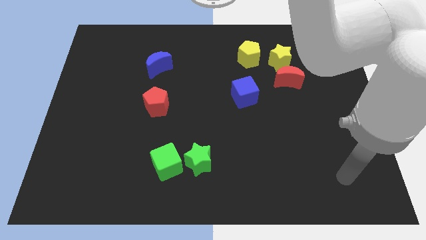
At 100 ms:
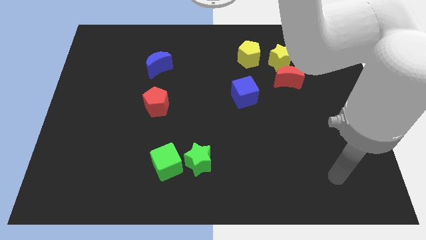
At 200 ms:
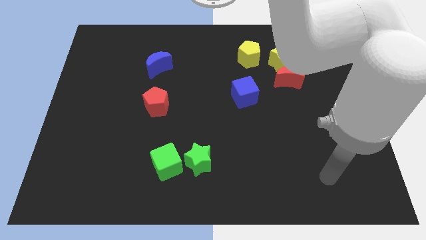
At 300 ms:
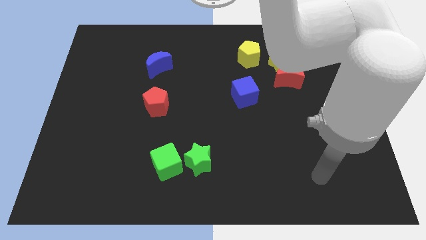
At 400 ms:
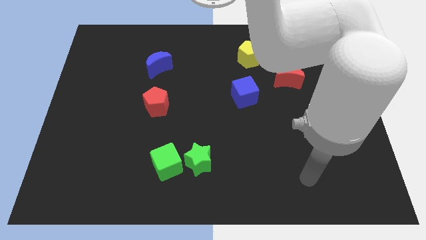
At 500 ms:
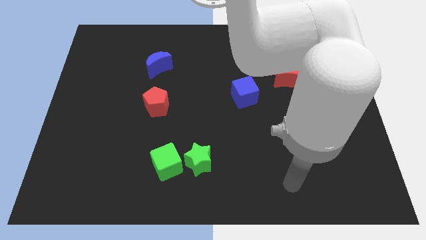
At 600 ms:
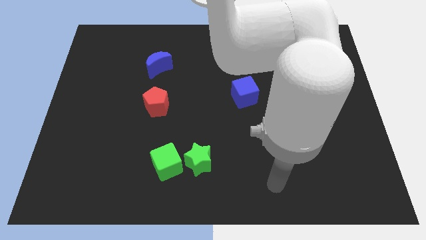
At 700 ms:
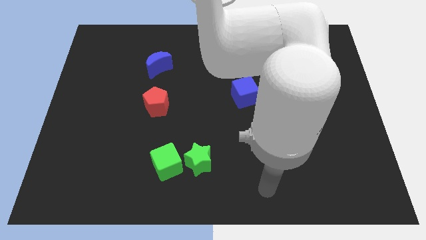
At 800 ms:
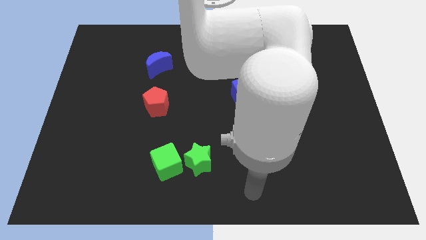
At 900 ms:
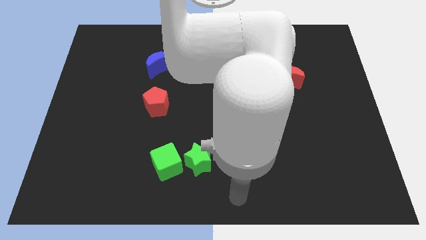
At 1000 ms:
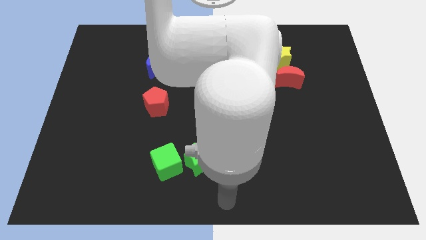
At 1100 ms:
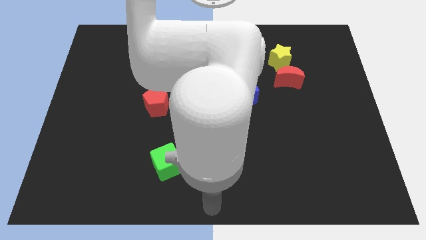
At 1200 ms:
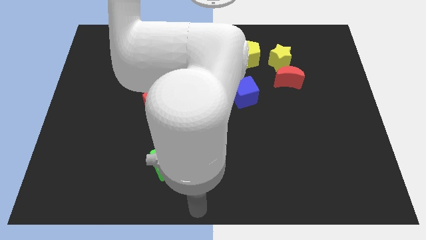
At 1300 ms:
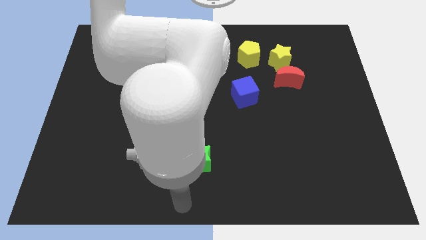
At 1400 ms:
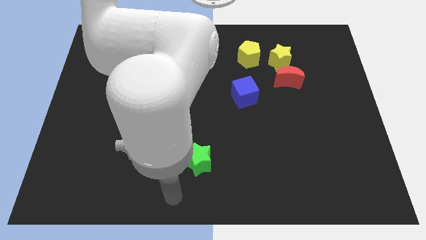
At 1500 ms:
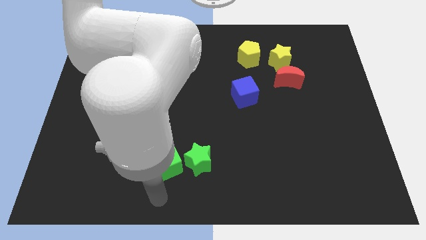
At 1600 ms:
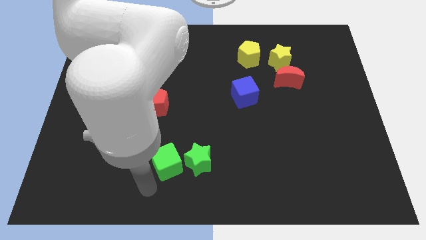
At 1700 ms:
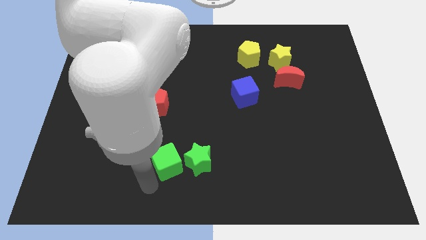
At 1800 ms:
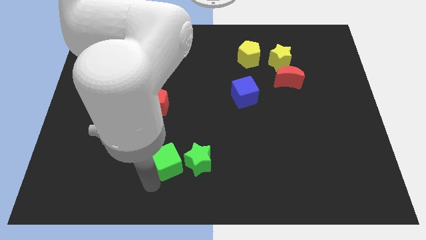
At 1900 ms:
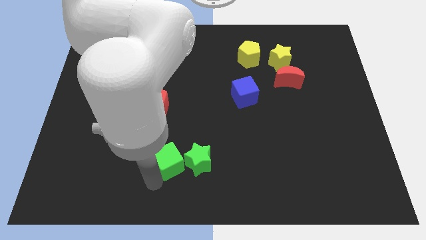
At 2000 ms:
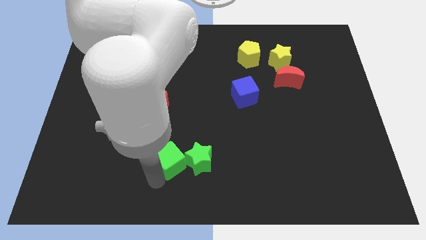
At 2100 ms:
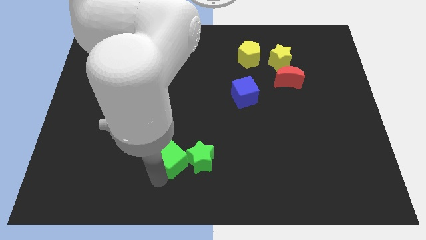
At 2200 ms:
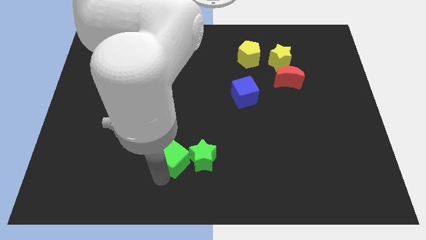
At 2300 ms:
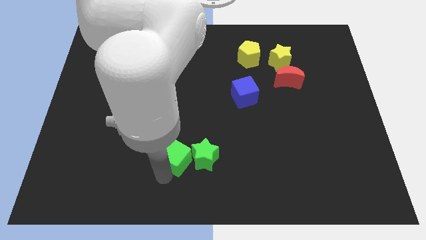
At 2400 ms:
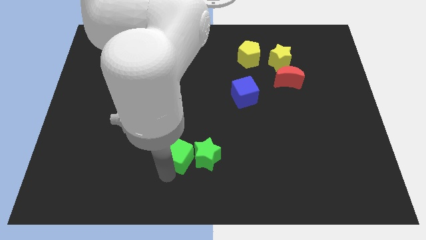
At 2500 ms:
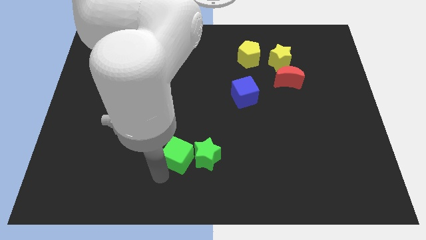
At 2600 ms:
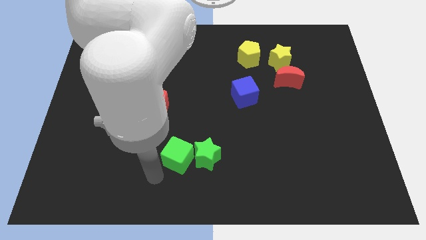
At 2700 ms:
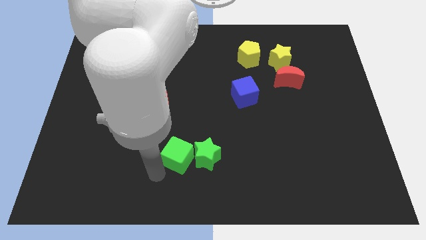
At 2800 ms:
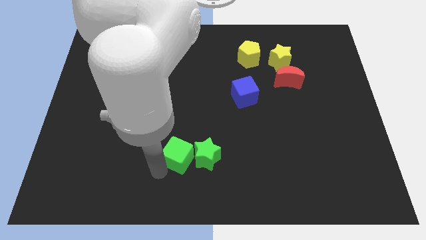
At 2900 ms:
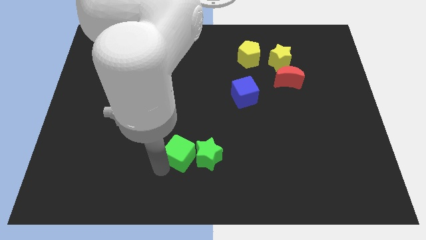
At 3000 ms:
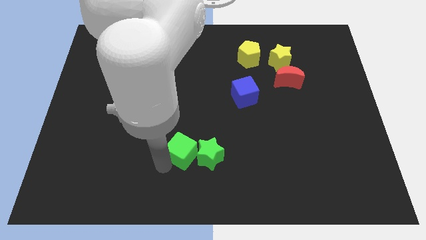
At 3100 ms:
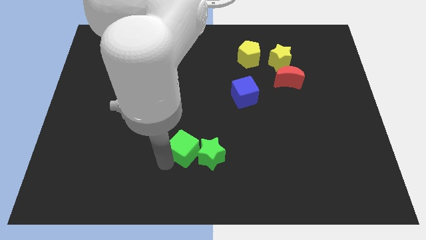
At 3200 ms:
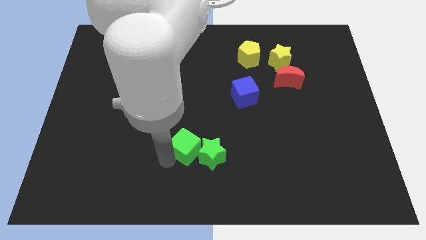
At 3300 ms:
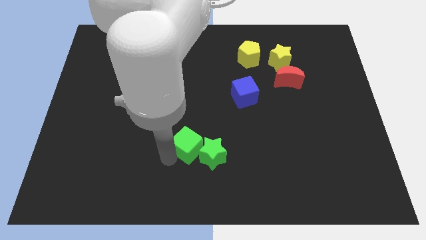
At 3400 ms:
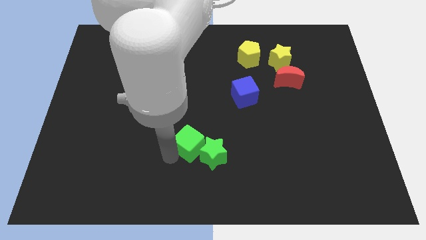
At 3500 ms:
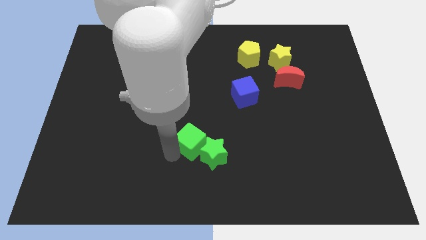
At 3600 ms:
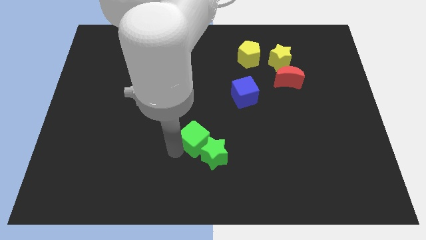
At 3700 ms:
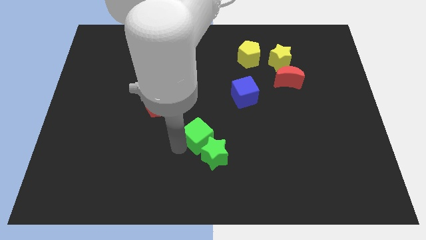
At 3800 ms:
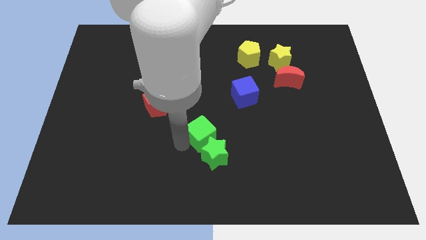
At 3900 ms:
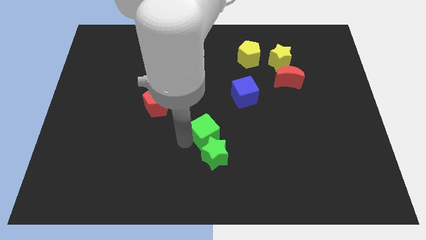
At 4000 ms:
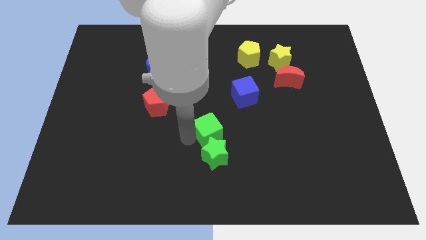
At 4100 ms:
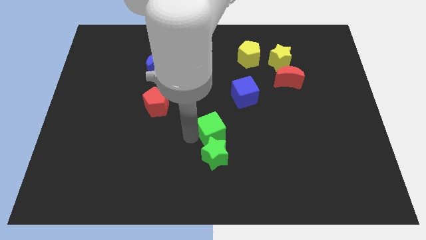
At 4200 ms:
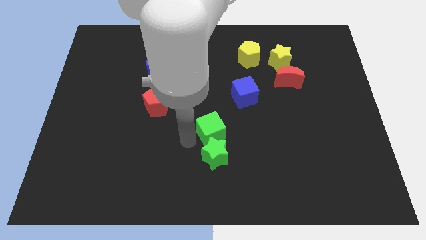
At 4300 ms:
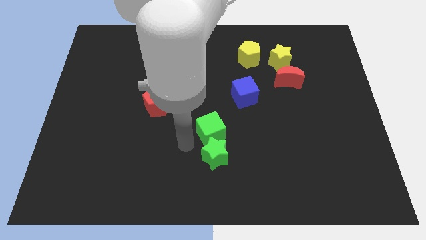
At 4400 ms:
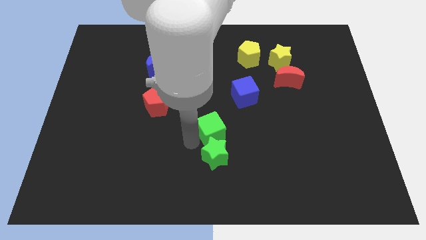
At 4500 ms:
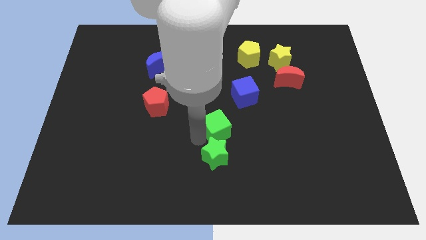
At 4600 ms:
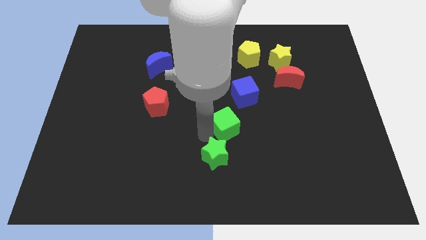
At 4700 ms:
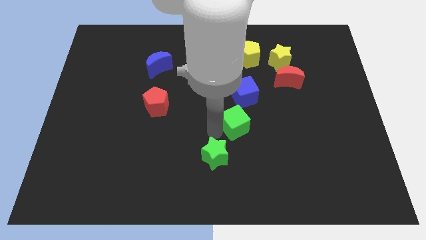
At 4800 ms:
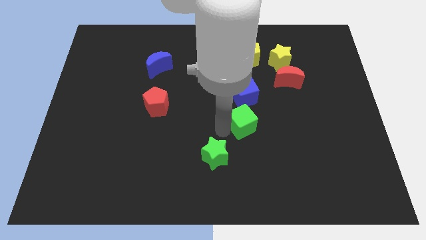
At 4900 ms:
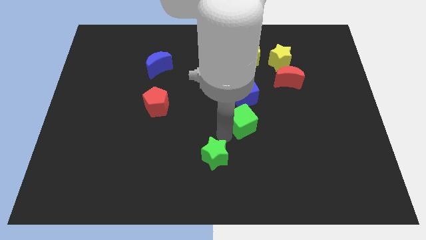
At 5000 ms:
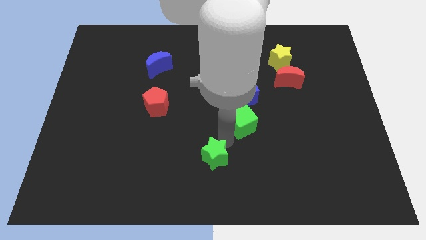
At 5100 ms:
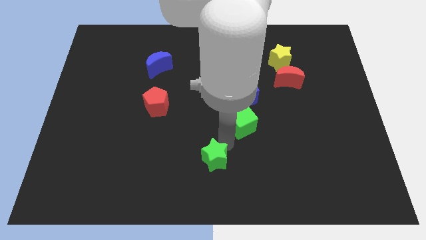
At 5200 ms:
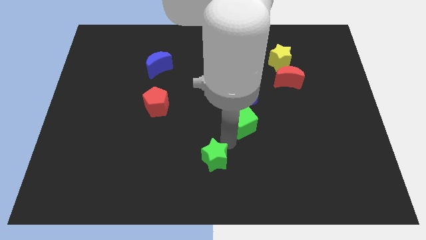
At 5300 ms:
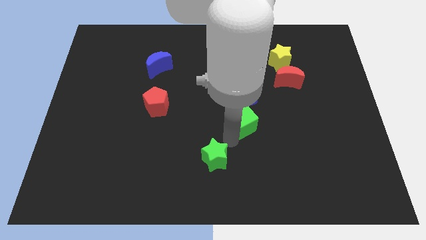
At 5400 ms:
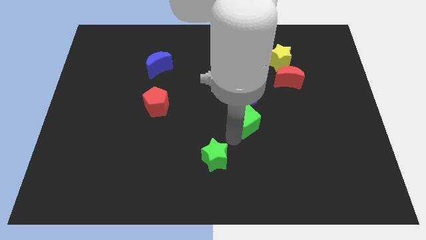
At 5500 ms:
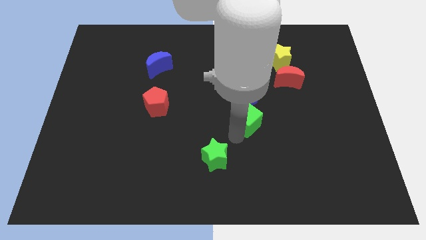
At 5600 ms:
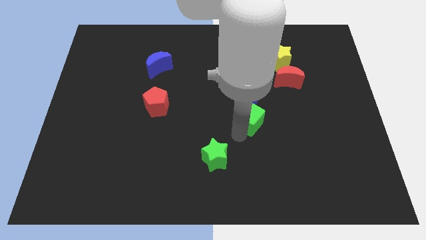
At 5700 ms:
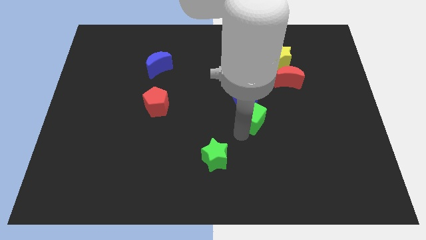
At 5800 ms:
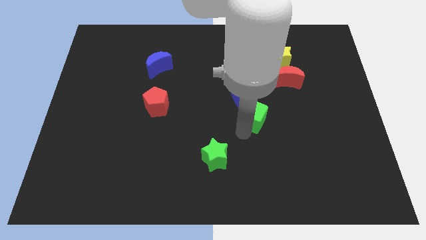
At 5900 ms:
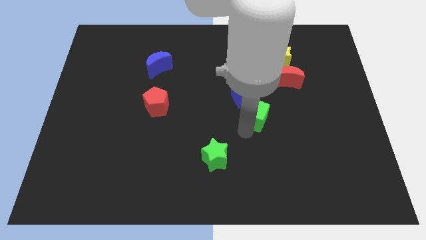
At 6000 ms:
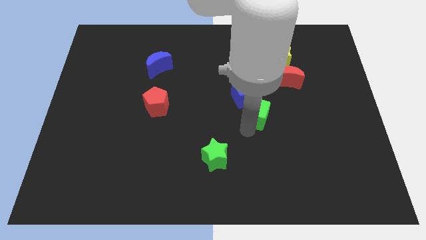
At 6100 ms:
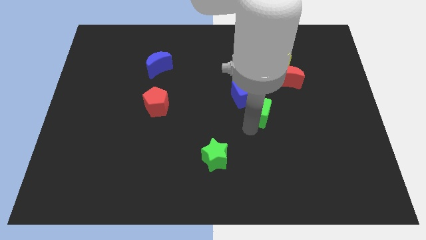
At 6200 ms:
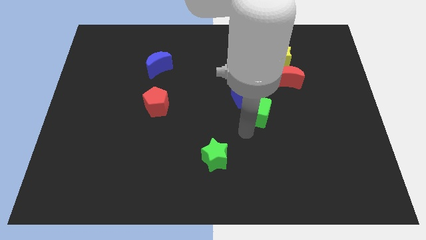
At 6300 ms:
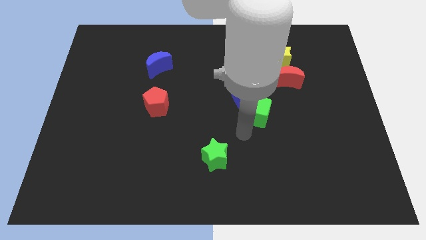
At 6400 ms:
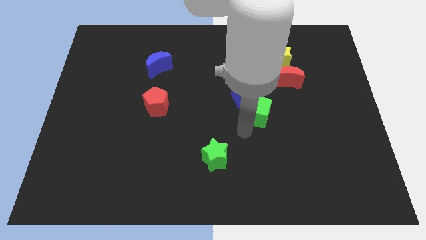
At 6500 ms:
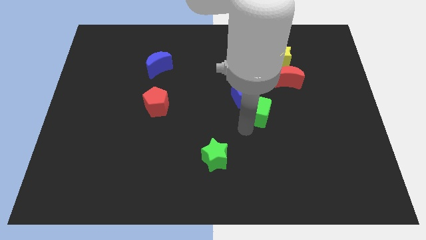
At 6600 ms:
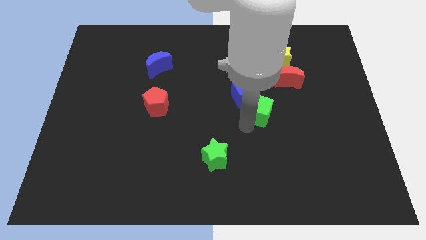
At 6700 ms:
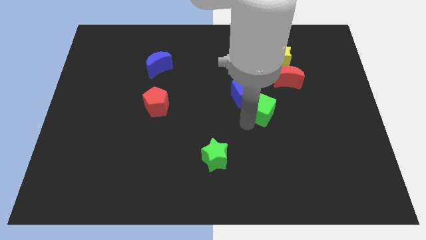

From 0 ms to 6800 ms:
push the green cube to the bottom left of the red moon

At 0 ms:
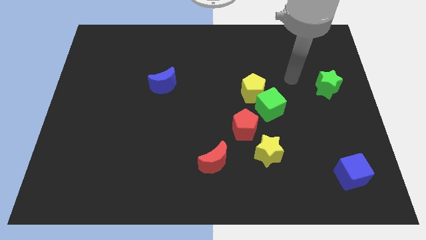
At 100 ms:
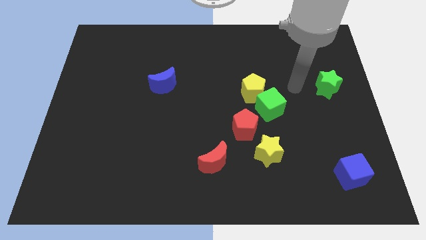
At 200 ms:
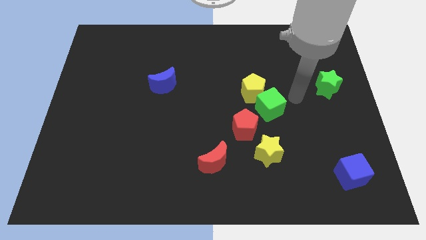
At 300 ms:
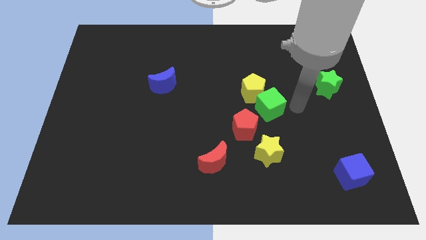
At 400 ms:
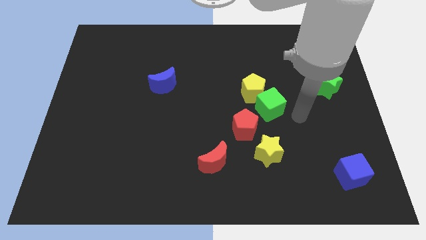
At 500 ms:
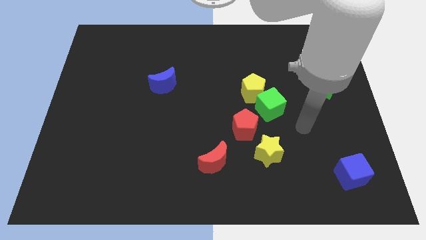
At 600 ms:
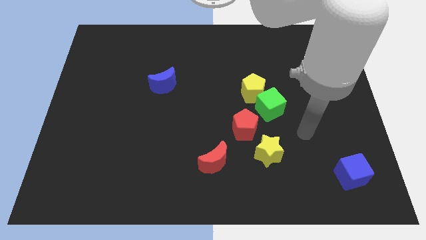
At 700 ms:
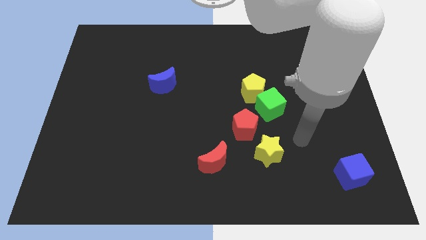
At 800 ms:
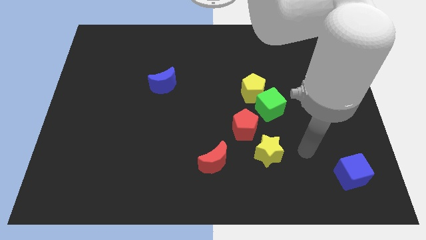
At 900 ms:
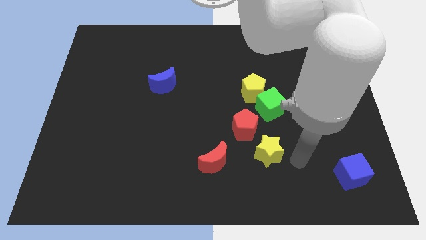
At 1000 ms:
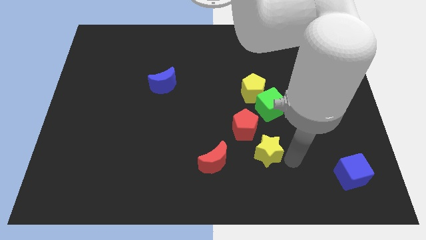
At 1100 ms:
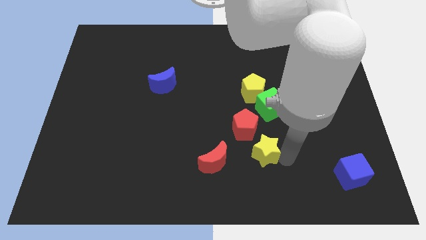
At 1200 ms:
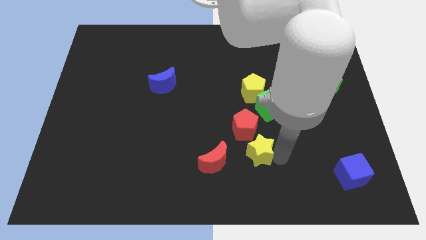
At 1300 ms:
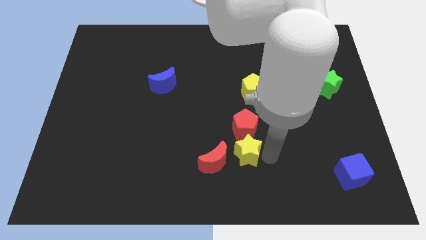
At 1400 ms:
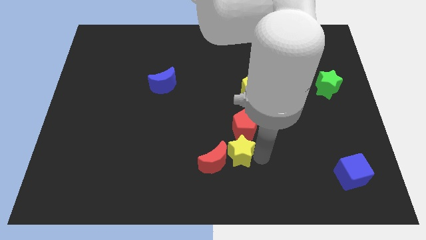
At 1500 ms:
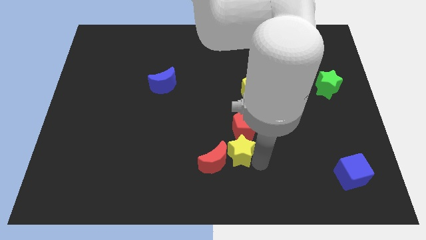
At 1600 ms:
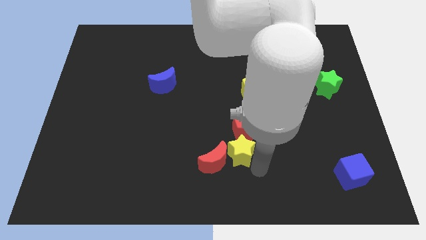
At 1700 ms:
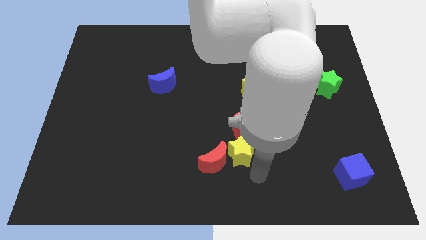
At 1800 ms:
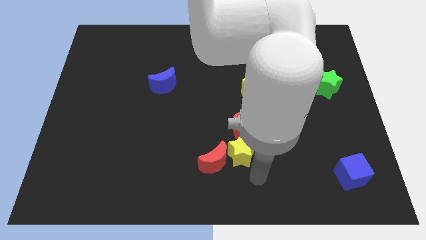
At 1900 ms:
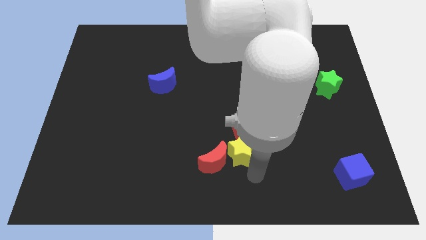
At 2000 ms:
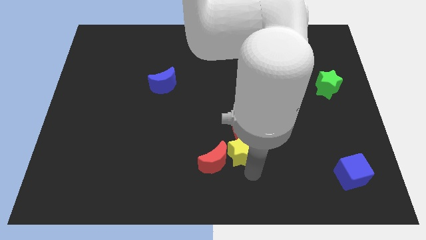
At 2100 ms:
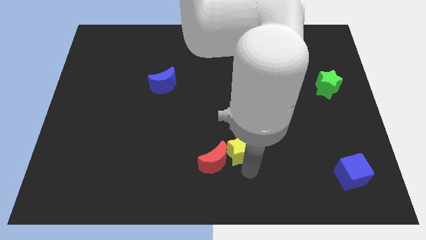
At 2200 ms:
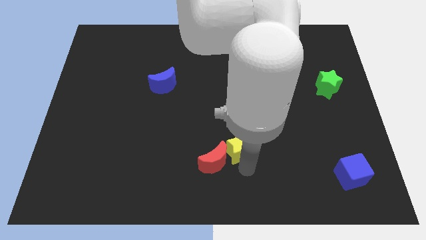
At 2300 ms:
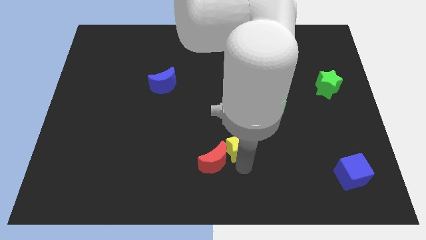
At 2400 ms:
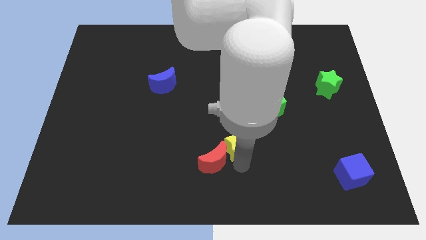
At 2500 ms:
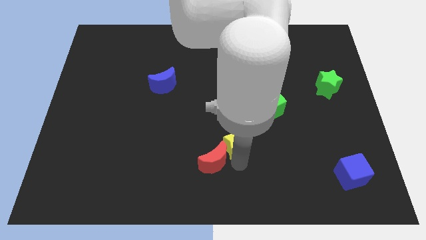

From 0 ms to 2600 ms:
move the yellow star to the top side of the red moon
